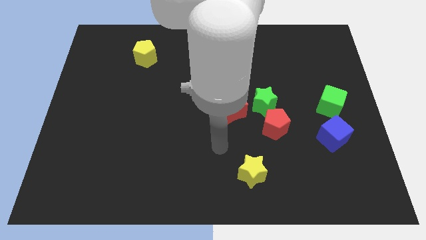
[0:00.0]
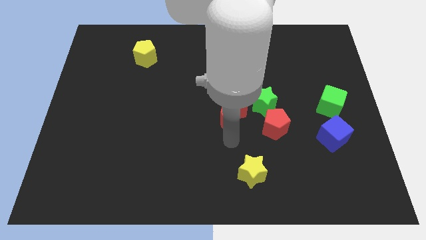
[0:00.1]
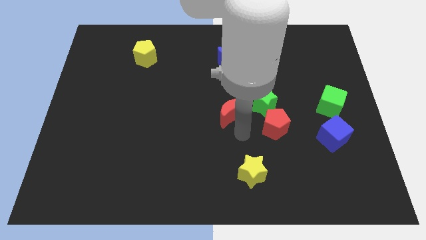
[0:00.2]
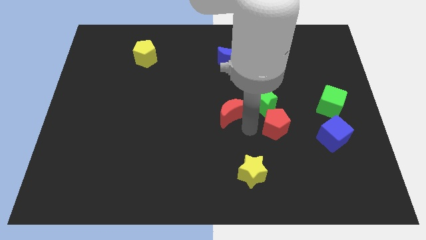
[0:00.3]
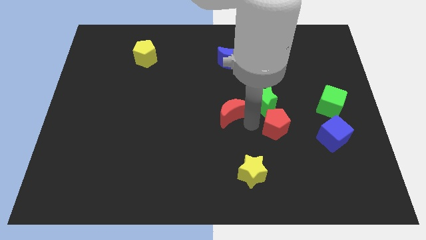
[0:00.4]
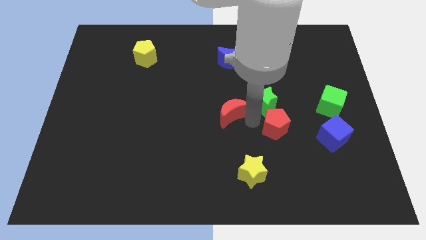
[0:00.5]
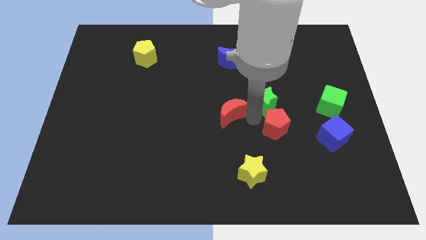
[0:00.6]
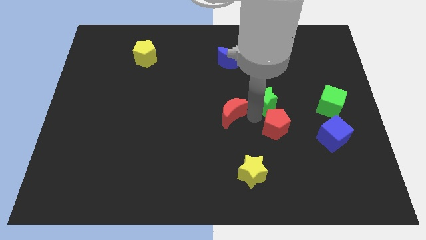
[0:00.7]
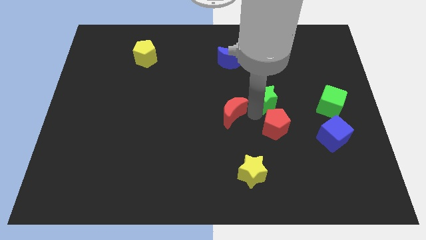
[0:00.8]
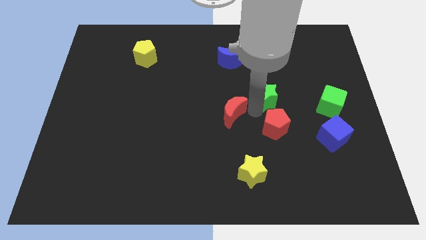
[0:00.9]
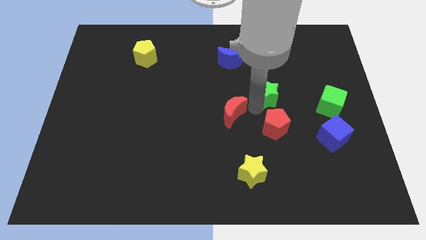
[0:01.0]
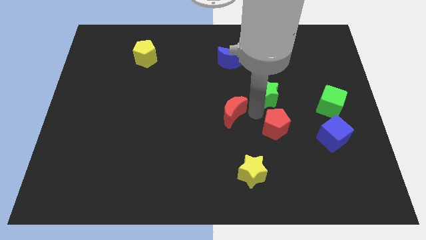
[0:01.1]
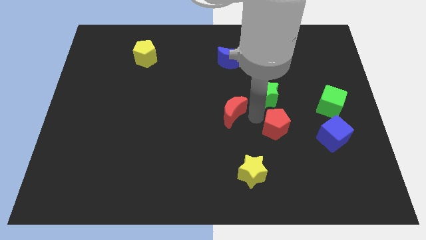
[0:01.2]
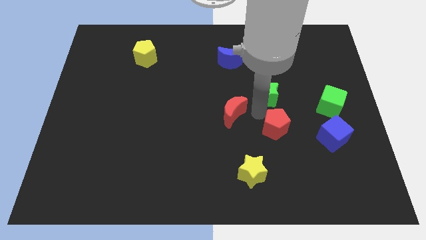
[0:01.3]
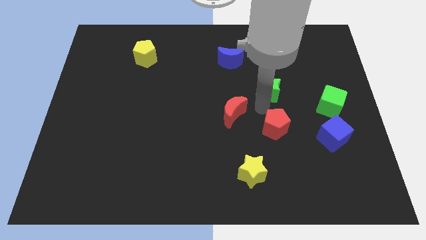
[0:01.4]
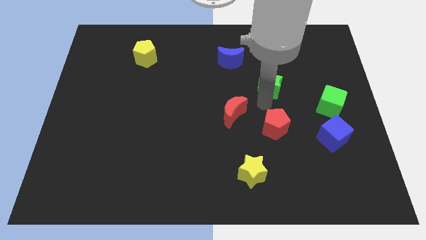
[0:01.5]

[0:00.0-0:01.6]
move the green star away from the red pentagon and red moon

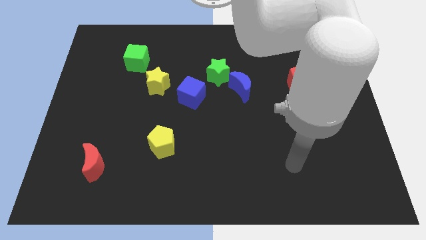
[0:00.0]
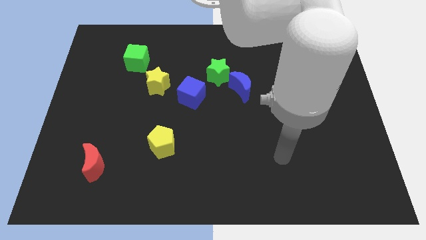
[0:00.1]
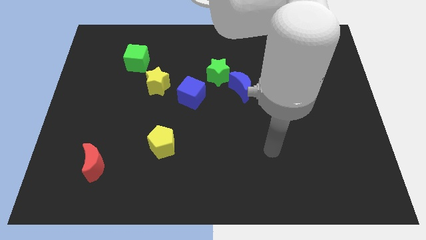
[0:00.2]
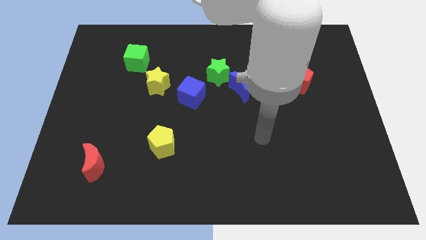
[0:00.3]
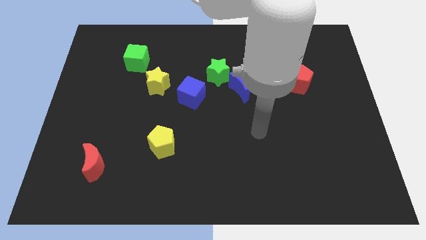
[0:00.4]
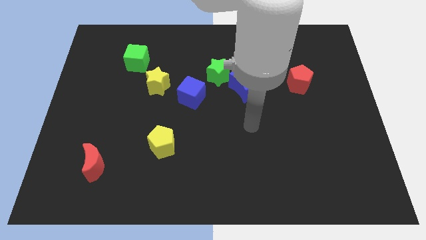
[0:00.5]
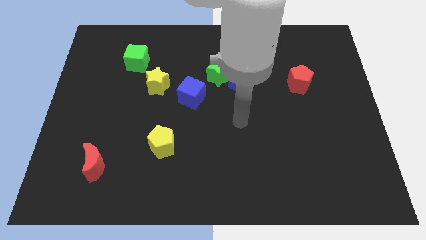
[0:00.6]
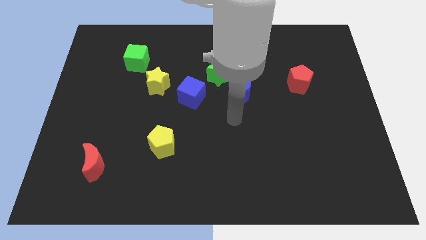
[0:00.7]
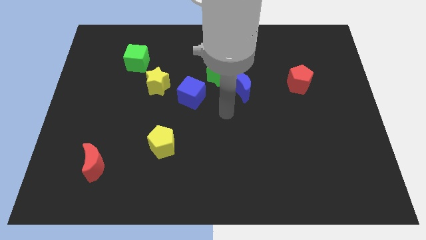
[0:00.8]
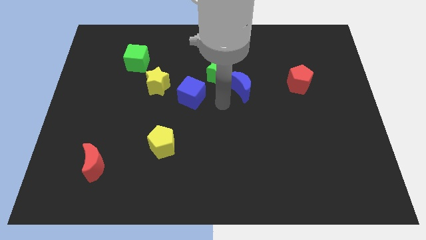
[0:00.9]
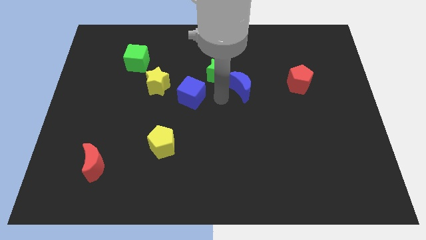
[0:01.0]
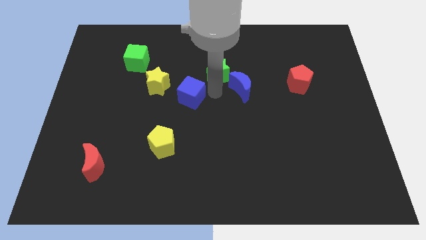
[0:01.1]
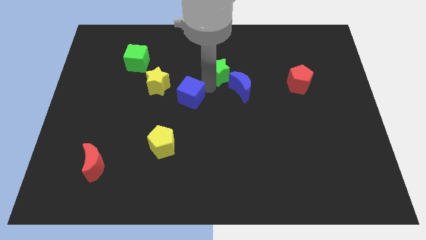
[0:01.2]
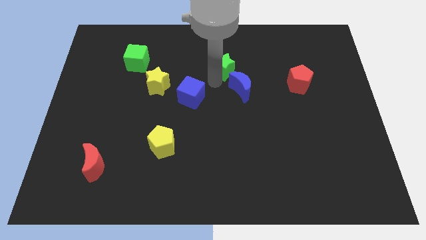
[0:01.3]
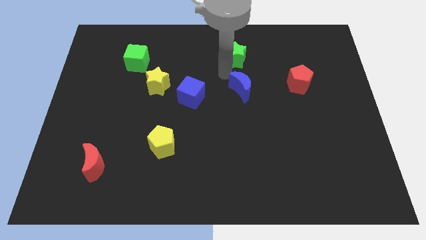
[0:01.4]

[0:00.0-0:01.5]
move the blue moon away from the green star

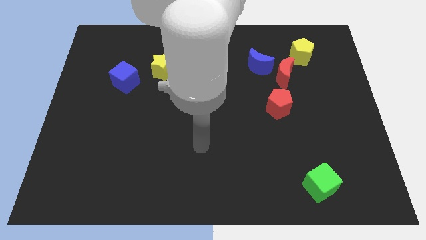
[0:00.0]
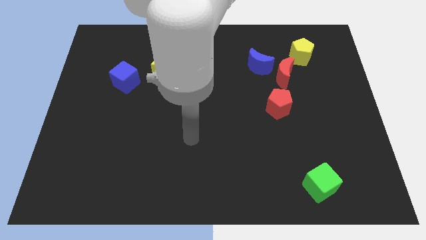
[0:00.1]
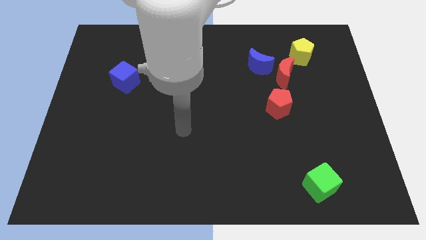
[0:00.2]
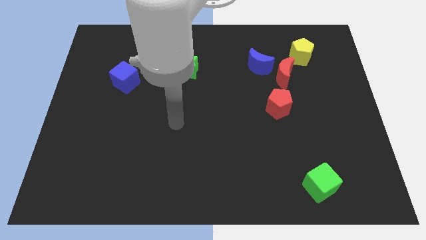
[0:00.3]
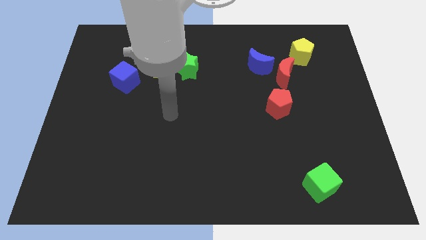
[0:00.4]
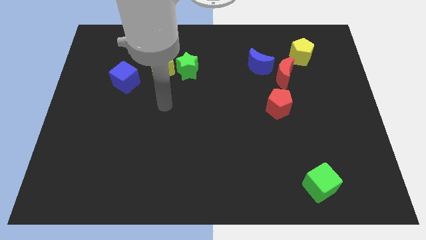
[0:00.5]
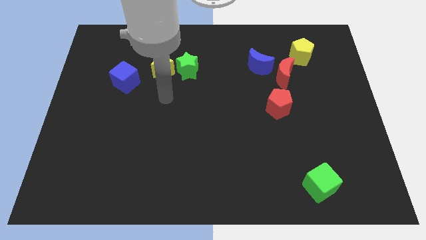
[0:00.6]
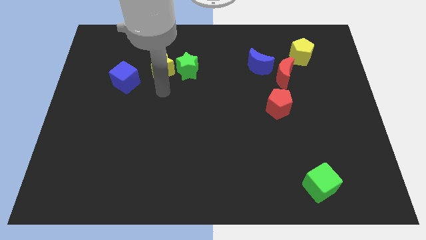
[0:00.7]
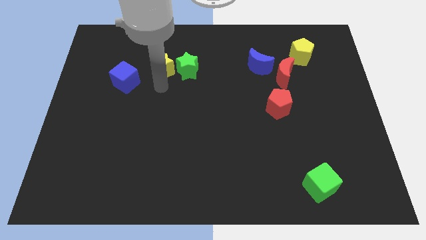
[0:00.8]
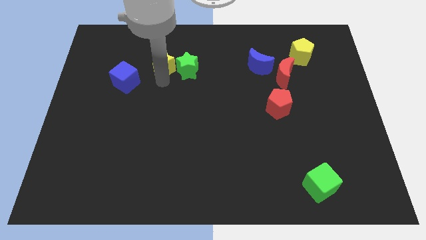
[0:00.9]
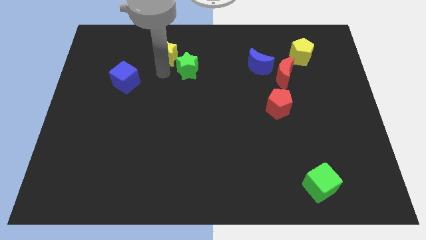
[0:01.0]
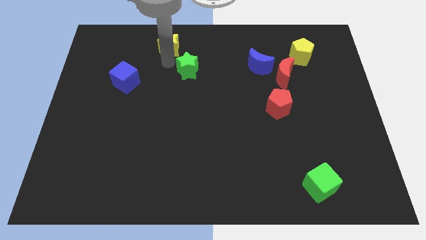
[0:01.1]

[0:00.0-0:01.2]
move the green star away from the yellow star

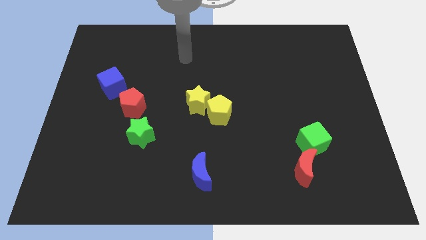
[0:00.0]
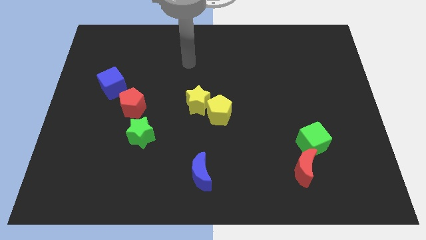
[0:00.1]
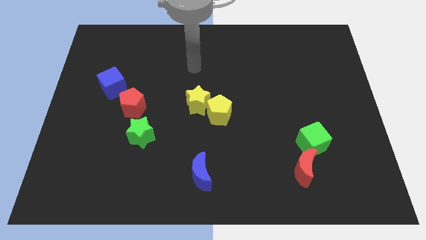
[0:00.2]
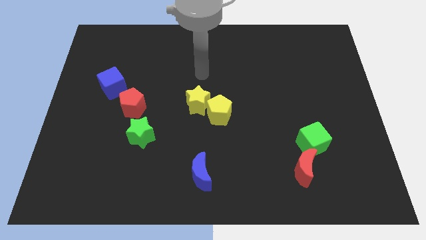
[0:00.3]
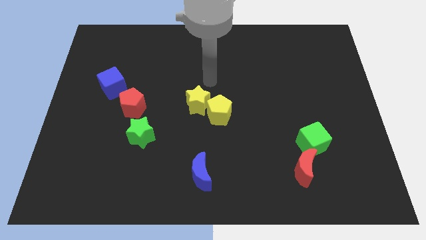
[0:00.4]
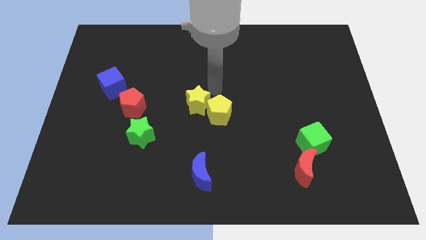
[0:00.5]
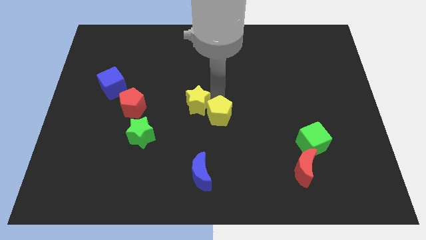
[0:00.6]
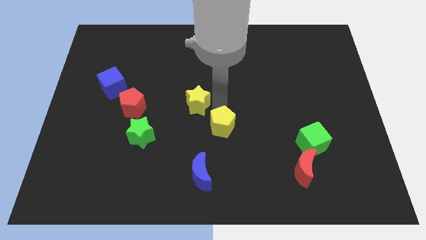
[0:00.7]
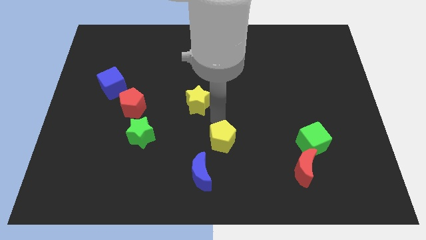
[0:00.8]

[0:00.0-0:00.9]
move the yellow star away from the yellow pentagon

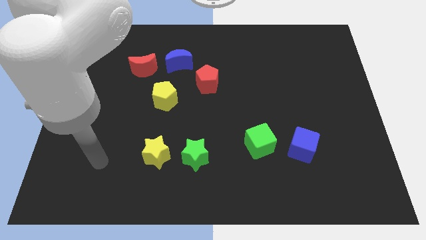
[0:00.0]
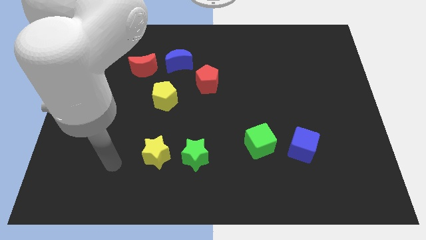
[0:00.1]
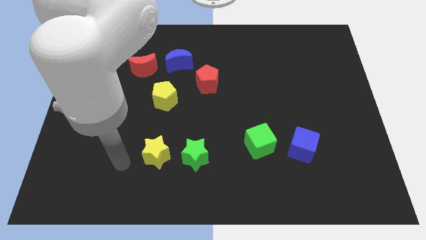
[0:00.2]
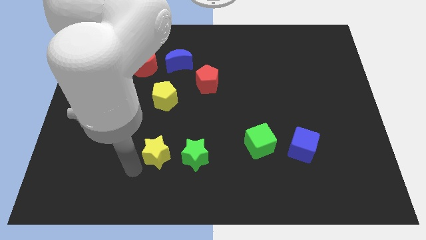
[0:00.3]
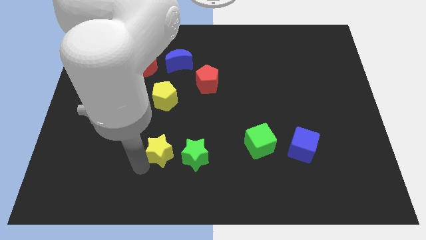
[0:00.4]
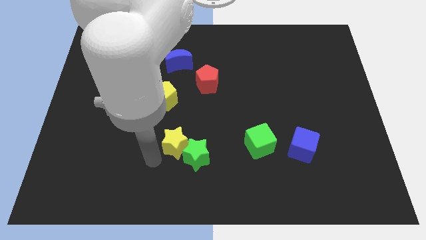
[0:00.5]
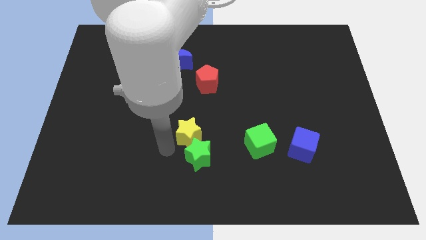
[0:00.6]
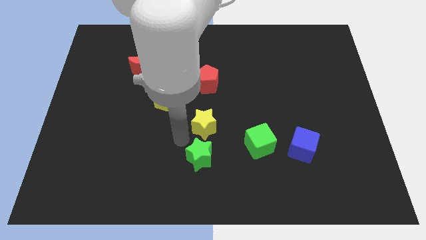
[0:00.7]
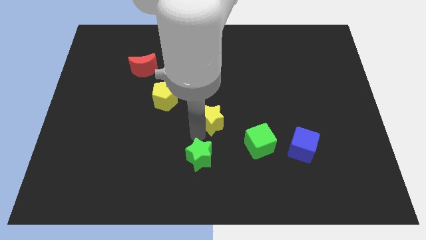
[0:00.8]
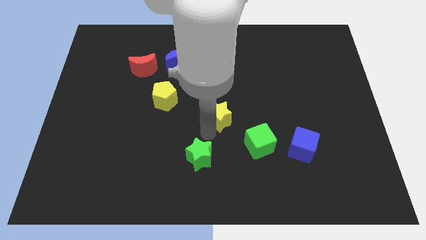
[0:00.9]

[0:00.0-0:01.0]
separate the green star from the yellow star

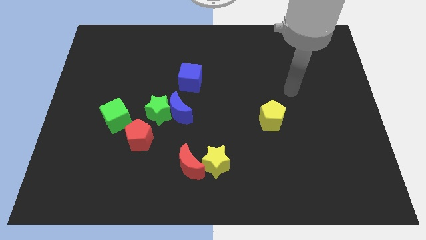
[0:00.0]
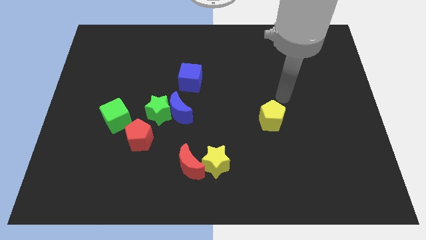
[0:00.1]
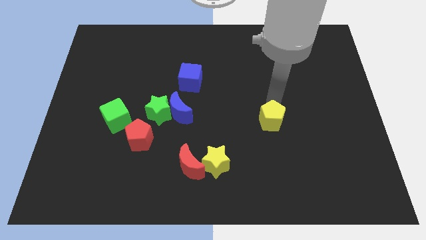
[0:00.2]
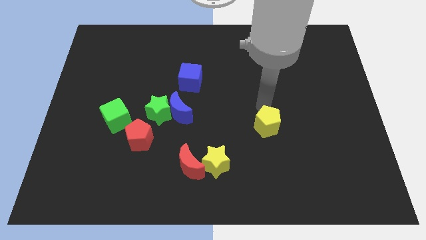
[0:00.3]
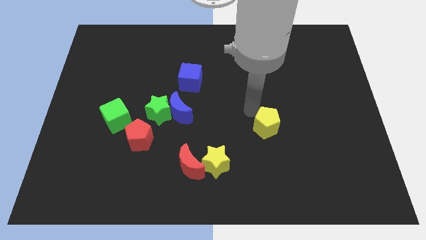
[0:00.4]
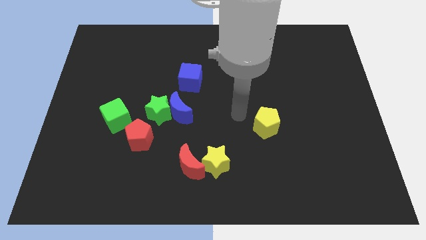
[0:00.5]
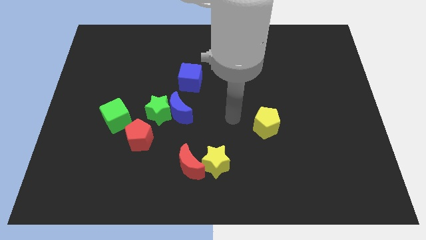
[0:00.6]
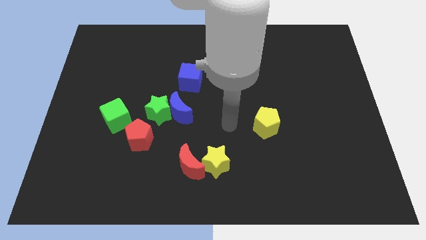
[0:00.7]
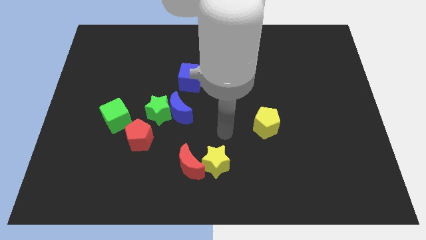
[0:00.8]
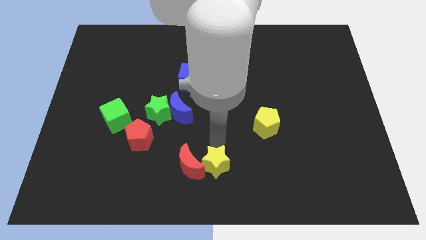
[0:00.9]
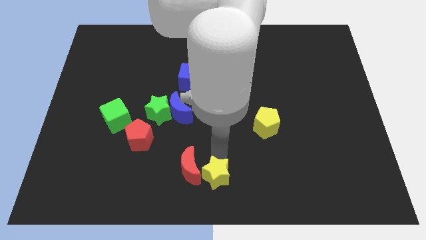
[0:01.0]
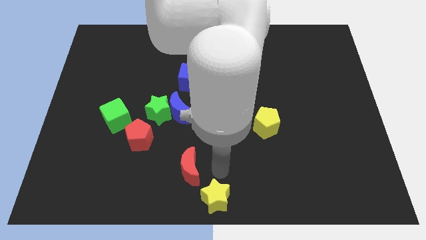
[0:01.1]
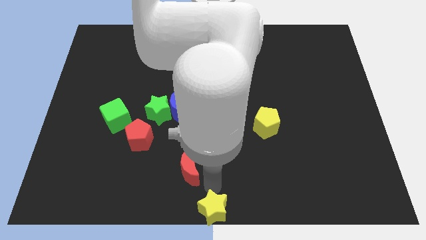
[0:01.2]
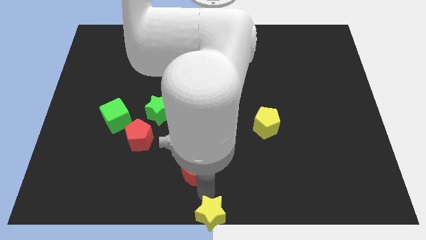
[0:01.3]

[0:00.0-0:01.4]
separate the red moon from the yellow star

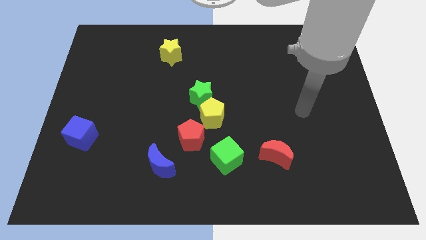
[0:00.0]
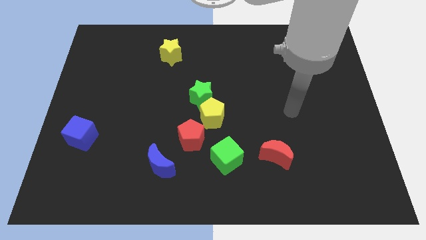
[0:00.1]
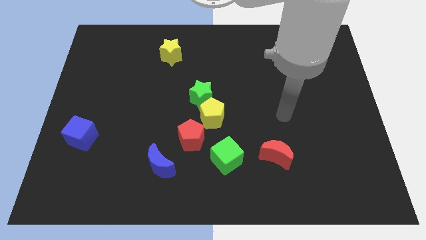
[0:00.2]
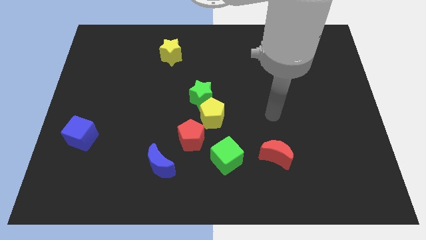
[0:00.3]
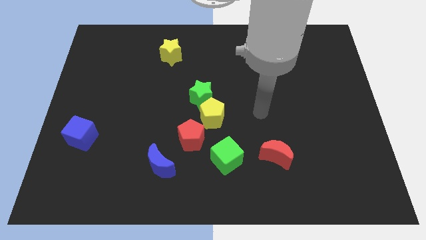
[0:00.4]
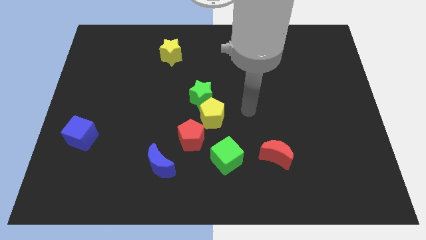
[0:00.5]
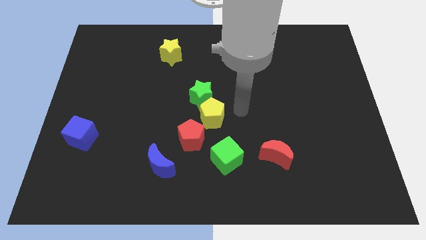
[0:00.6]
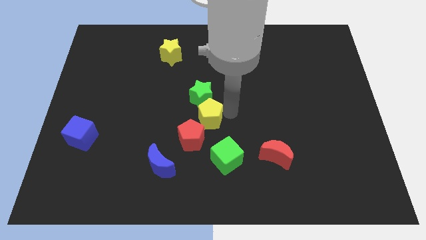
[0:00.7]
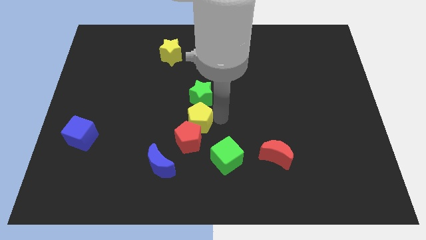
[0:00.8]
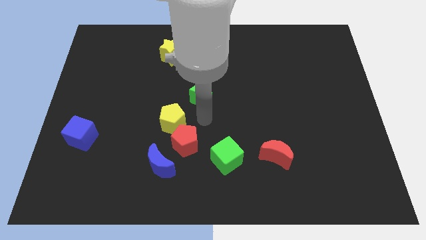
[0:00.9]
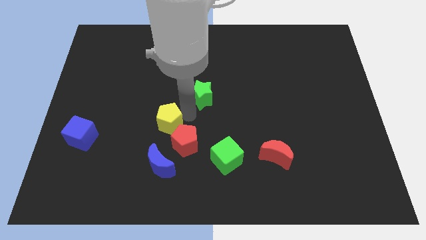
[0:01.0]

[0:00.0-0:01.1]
move the green star away from the yellow pentagon

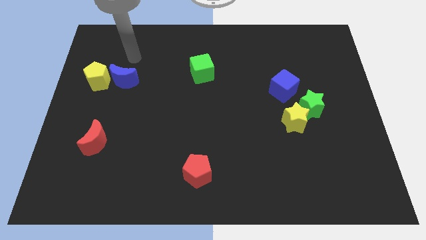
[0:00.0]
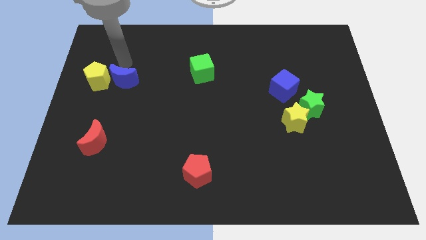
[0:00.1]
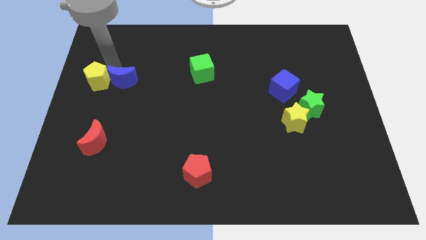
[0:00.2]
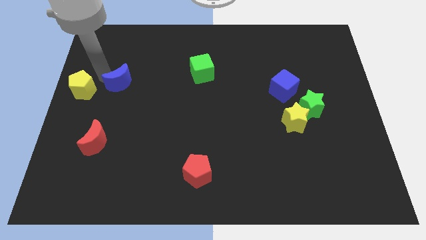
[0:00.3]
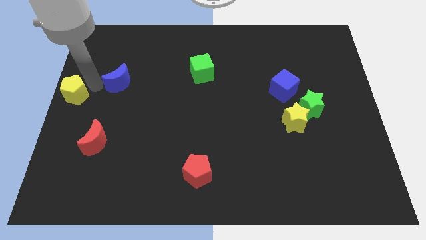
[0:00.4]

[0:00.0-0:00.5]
pull the blue moon apart from the yellow pentagon
